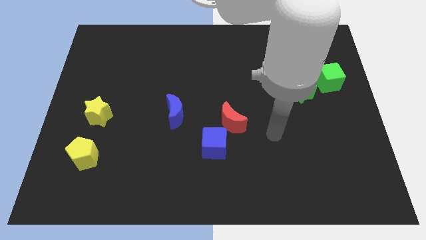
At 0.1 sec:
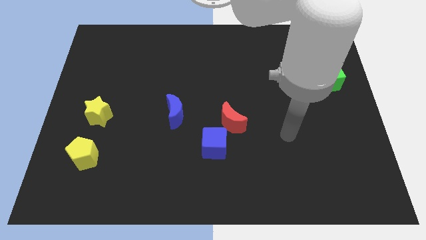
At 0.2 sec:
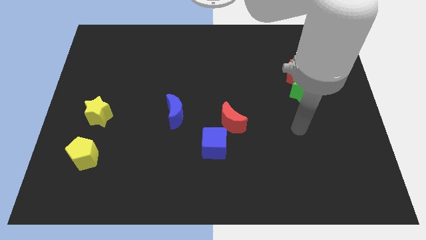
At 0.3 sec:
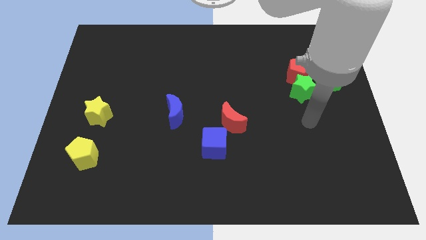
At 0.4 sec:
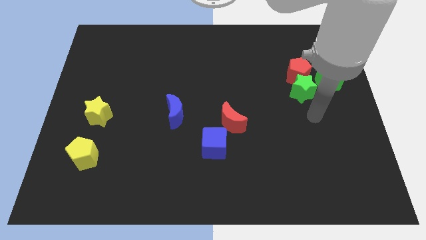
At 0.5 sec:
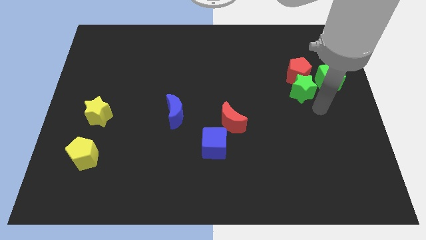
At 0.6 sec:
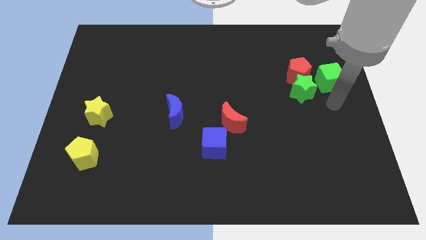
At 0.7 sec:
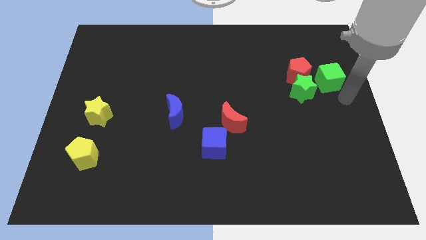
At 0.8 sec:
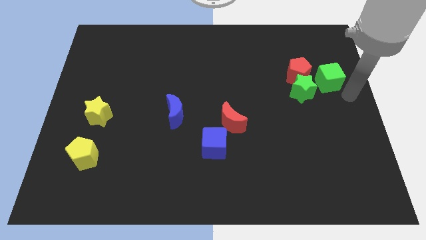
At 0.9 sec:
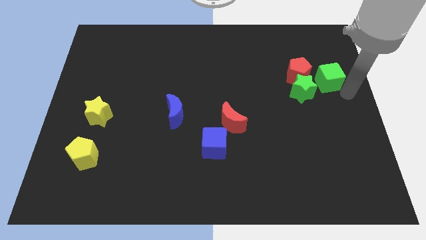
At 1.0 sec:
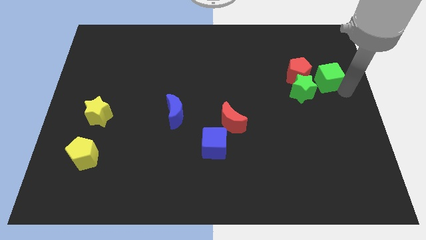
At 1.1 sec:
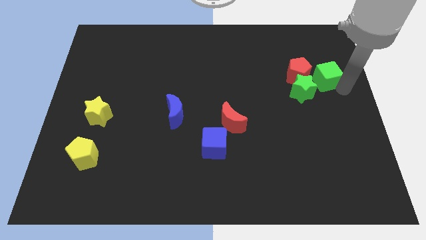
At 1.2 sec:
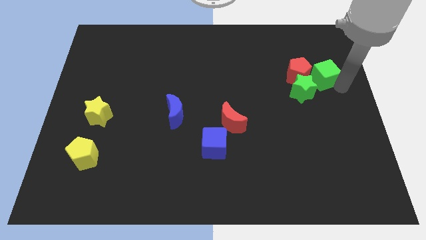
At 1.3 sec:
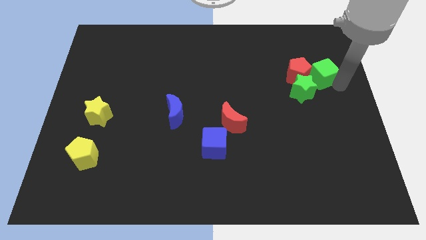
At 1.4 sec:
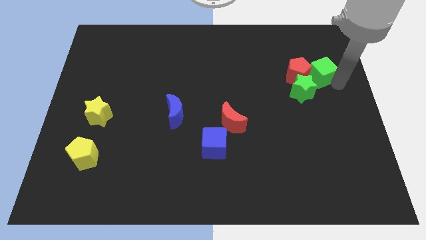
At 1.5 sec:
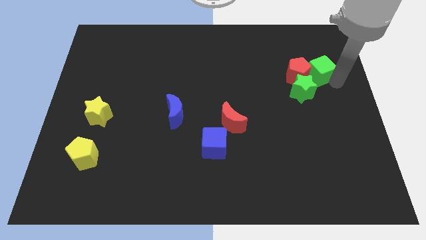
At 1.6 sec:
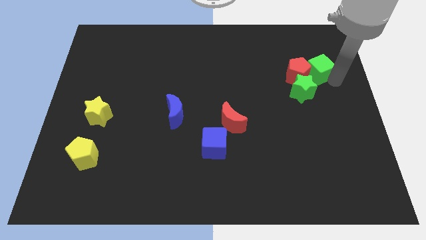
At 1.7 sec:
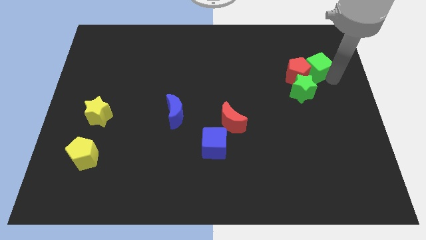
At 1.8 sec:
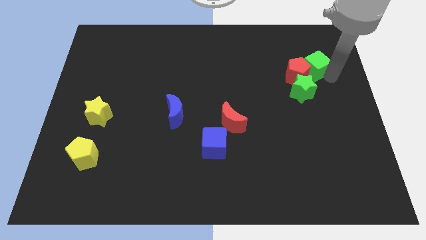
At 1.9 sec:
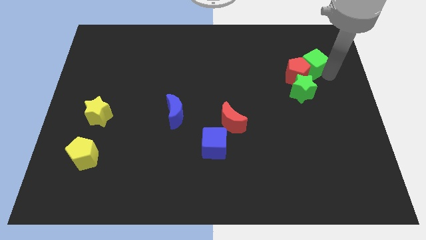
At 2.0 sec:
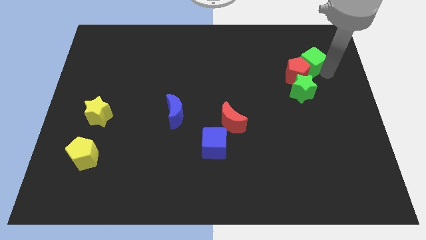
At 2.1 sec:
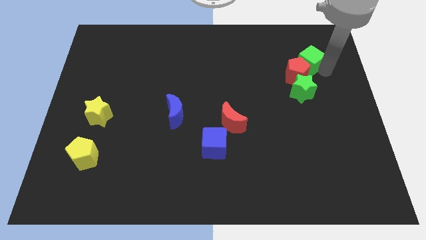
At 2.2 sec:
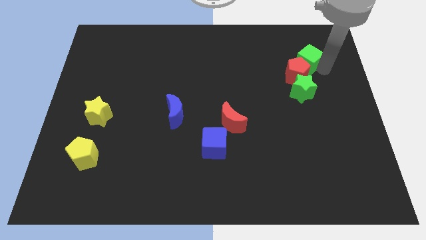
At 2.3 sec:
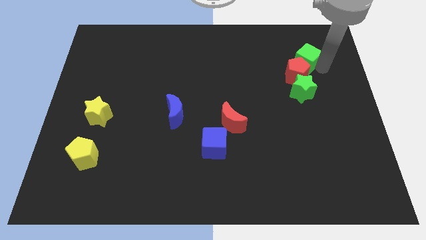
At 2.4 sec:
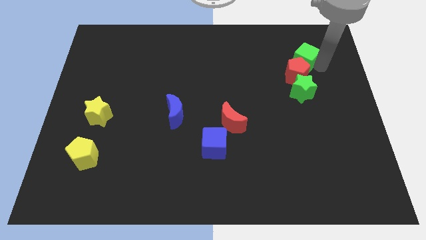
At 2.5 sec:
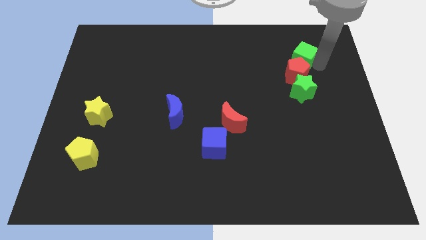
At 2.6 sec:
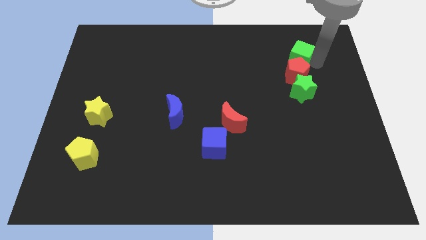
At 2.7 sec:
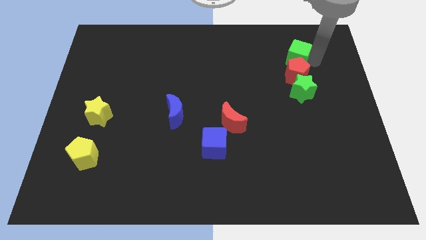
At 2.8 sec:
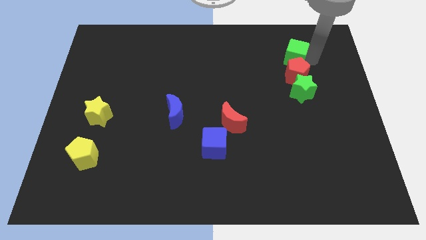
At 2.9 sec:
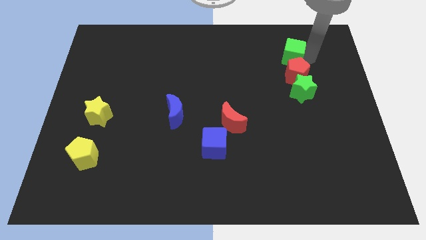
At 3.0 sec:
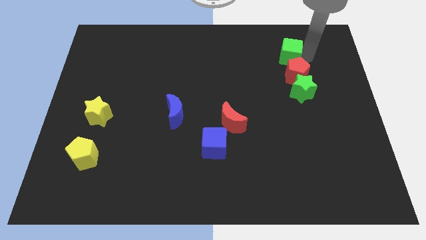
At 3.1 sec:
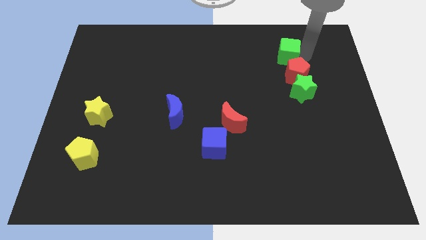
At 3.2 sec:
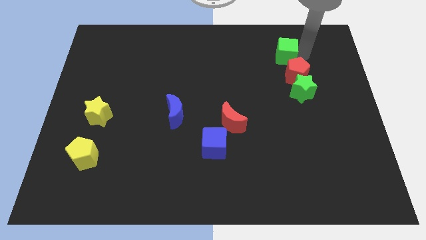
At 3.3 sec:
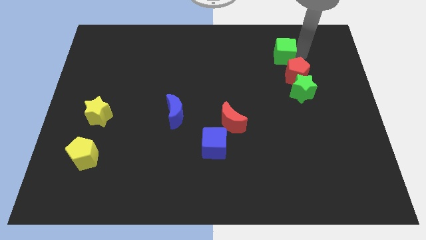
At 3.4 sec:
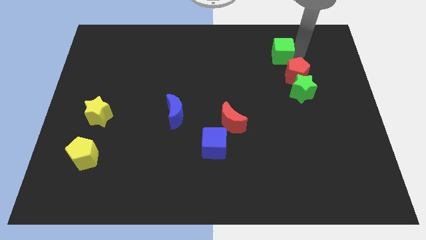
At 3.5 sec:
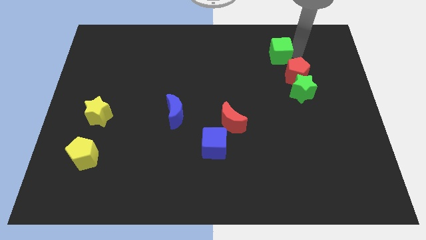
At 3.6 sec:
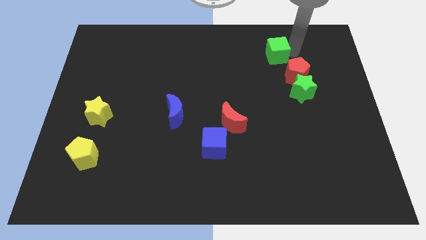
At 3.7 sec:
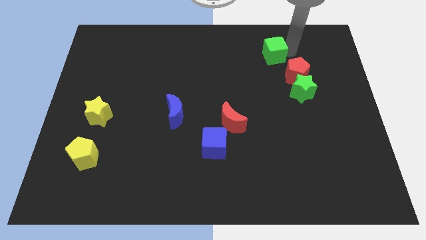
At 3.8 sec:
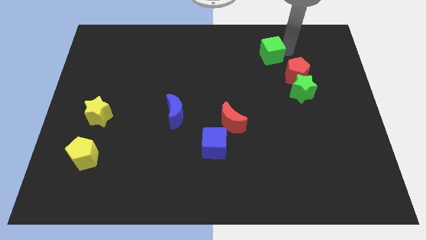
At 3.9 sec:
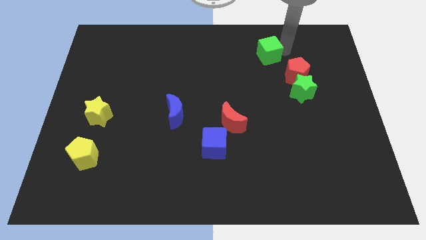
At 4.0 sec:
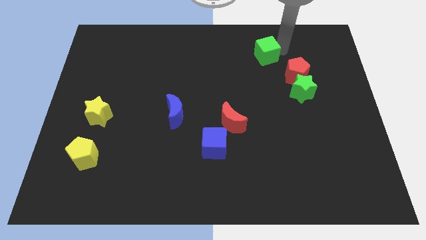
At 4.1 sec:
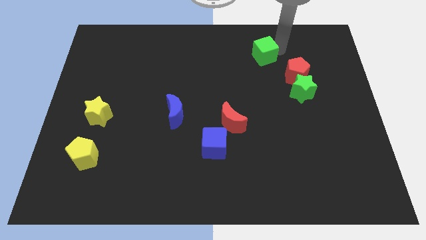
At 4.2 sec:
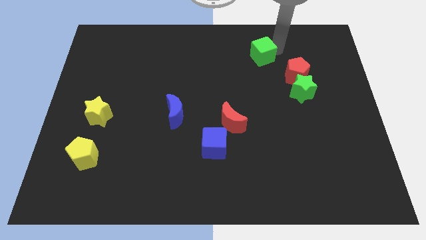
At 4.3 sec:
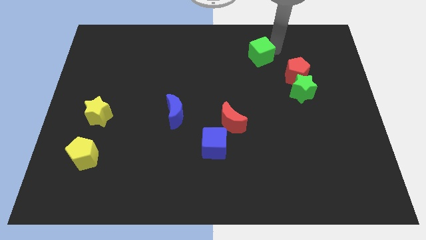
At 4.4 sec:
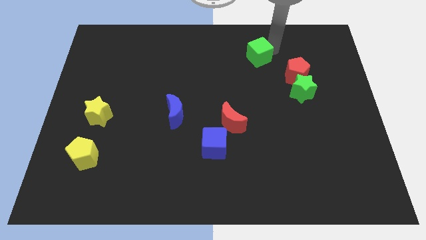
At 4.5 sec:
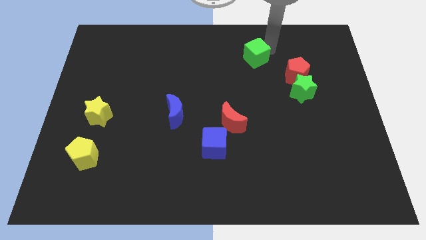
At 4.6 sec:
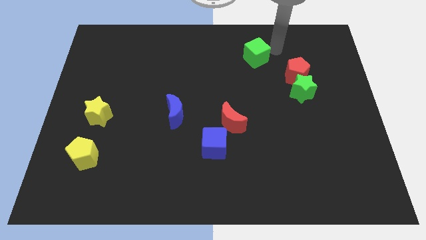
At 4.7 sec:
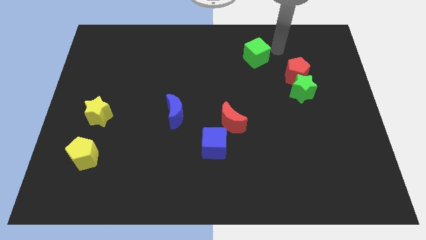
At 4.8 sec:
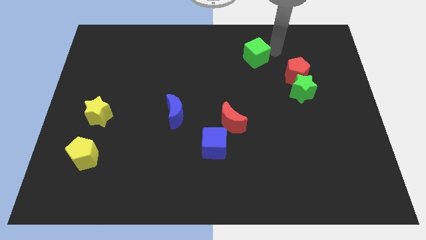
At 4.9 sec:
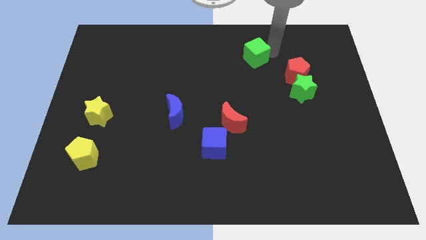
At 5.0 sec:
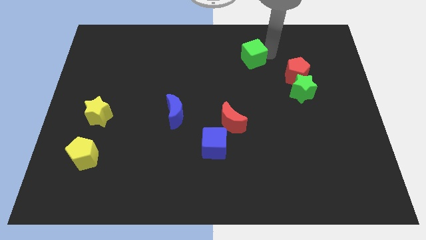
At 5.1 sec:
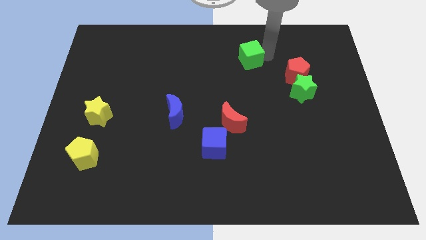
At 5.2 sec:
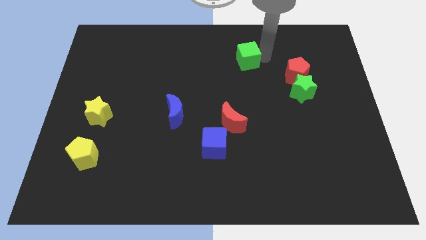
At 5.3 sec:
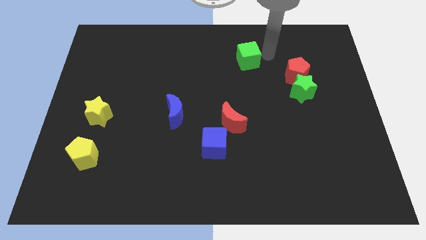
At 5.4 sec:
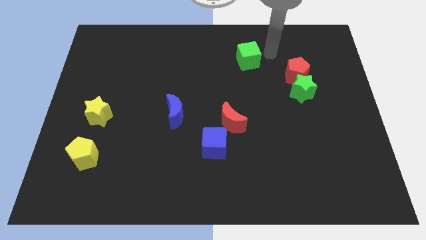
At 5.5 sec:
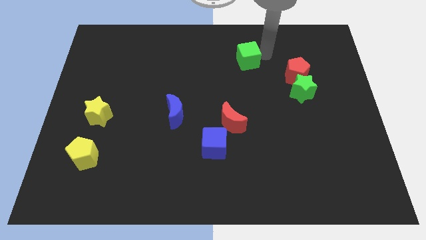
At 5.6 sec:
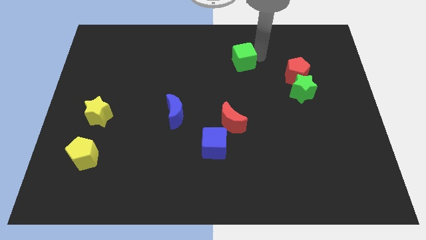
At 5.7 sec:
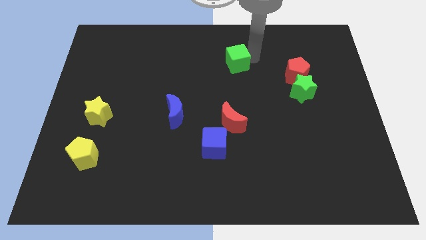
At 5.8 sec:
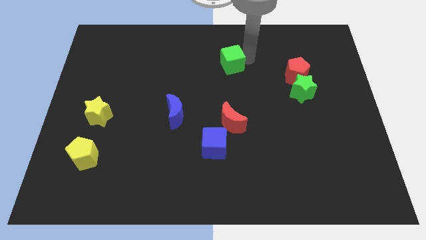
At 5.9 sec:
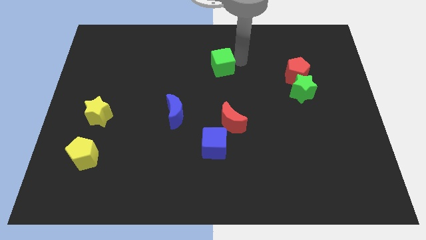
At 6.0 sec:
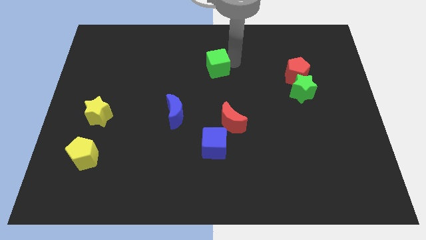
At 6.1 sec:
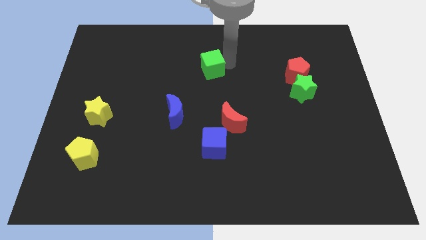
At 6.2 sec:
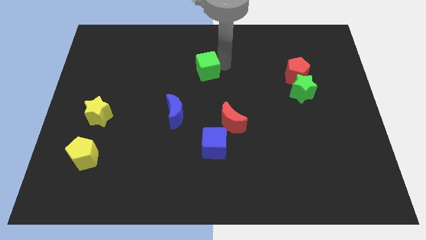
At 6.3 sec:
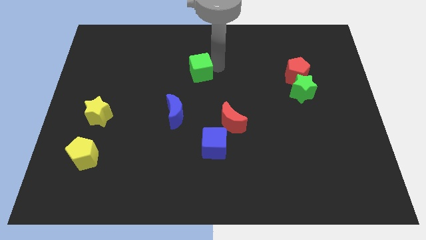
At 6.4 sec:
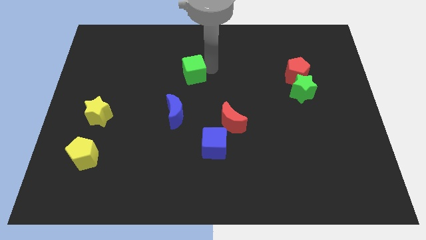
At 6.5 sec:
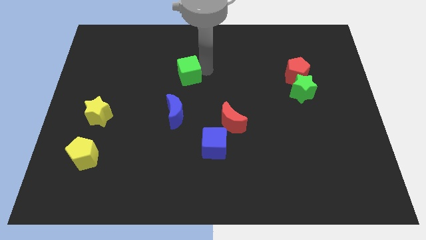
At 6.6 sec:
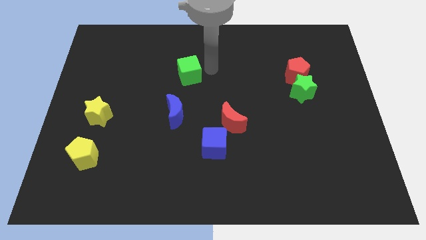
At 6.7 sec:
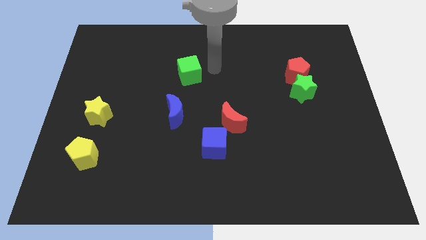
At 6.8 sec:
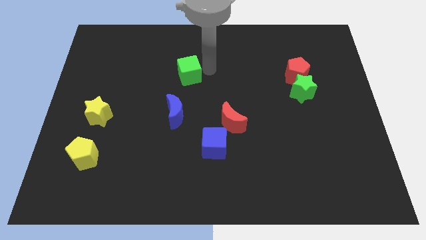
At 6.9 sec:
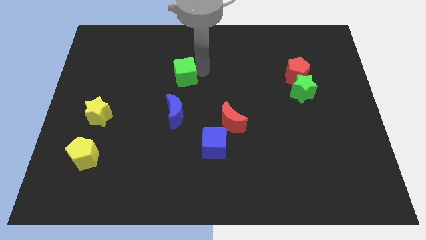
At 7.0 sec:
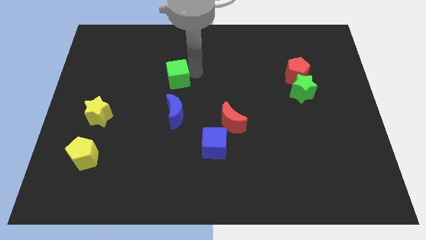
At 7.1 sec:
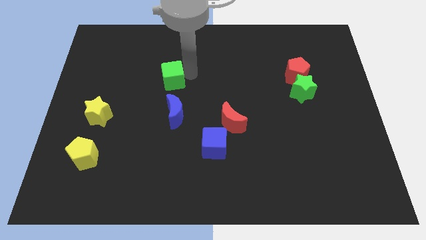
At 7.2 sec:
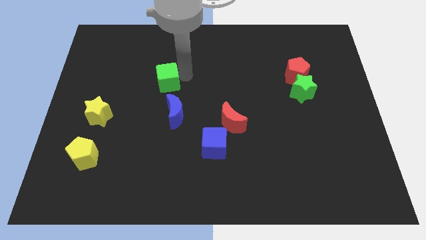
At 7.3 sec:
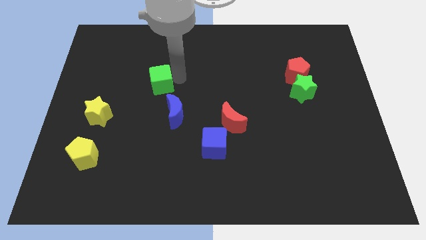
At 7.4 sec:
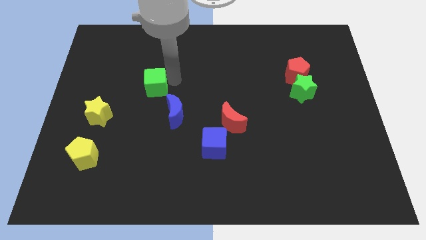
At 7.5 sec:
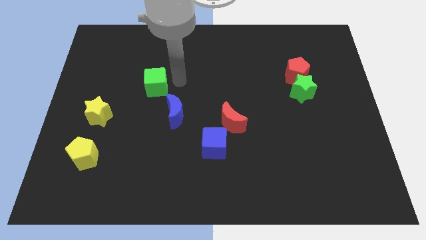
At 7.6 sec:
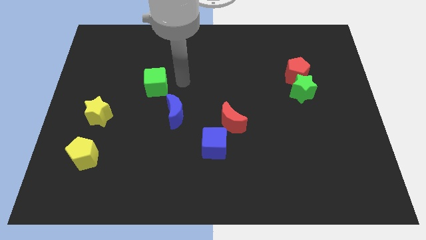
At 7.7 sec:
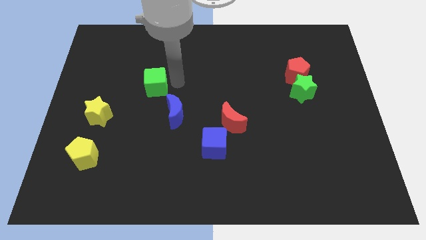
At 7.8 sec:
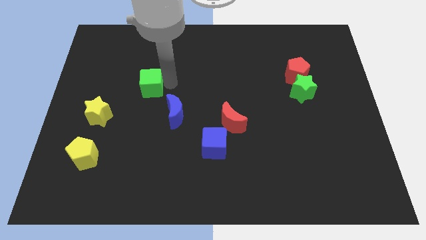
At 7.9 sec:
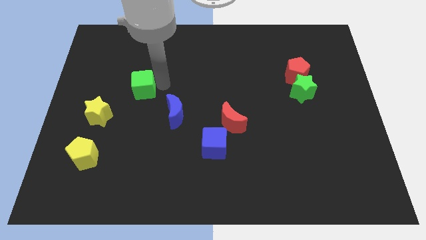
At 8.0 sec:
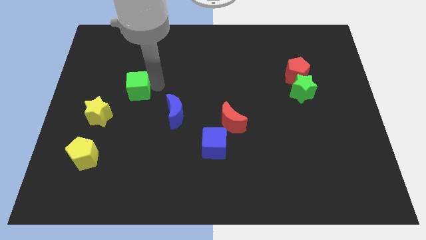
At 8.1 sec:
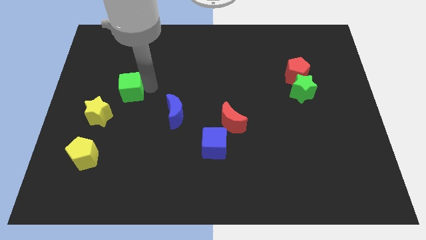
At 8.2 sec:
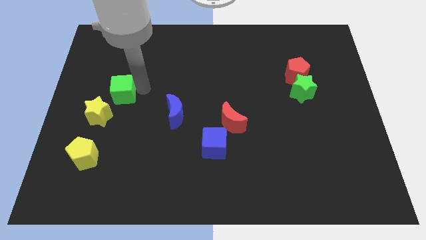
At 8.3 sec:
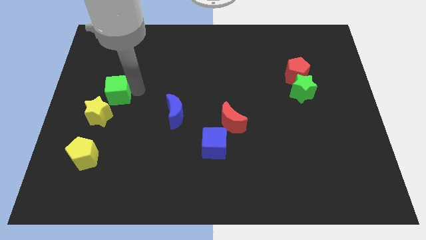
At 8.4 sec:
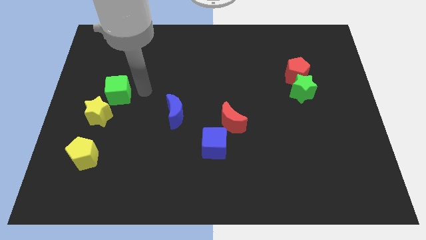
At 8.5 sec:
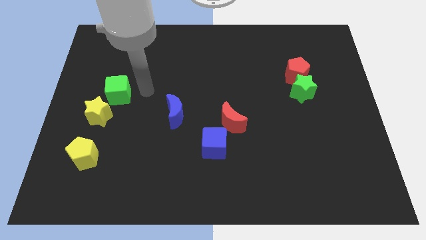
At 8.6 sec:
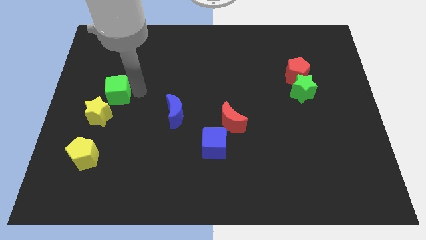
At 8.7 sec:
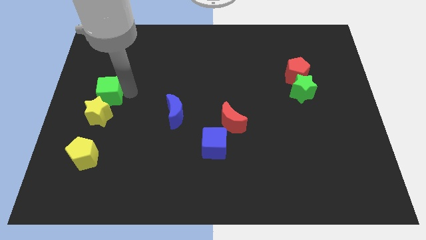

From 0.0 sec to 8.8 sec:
push the green cube to the left side
